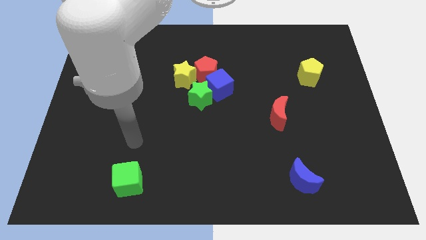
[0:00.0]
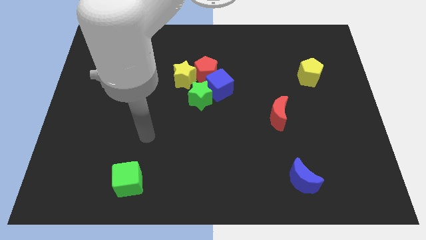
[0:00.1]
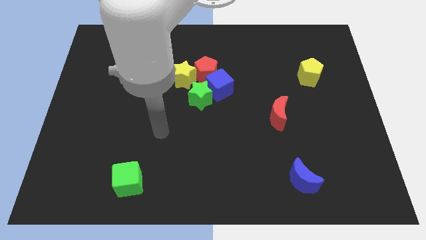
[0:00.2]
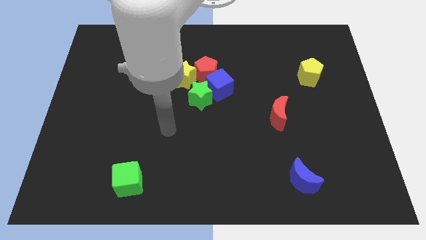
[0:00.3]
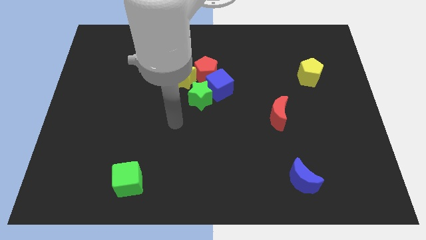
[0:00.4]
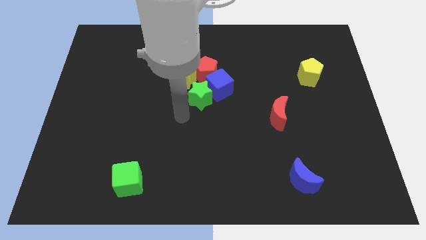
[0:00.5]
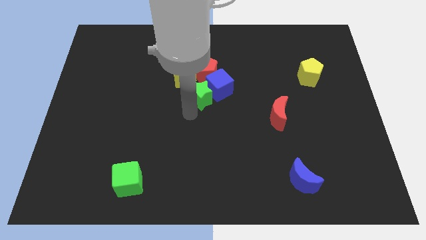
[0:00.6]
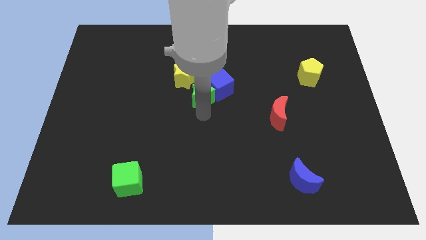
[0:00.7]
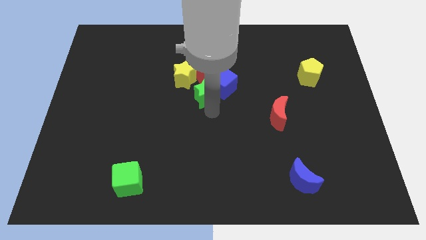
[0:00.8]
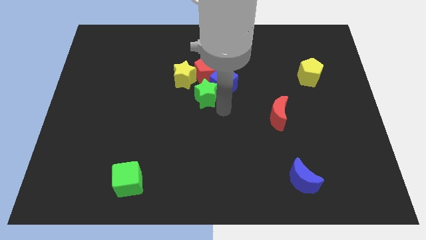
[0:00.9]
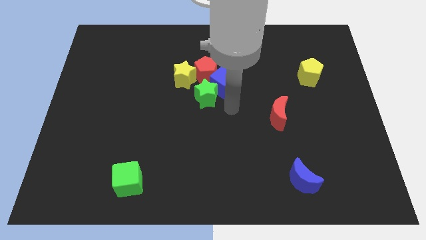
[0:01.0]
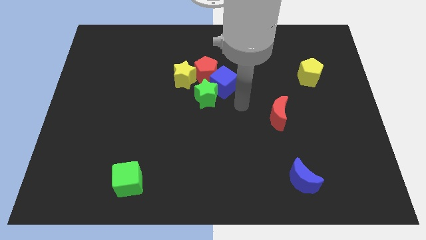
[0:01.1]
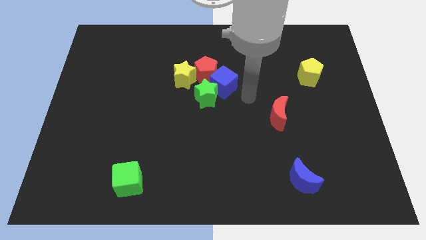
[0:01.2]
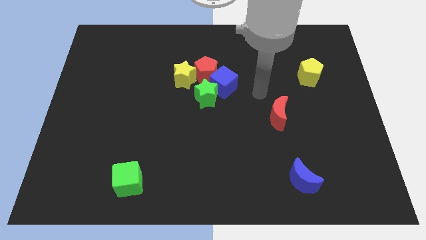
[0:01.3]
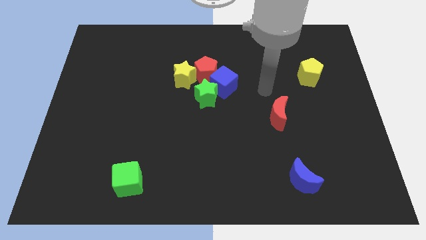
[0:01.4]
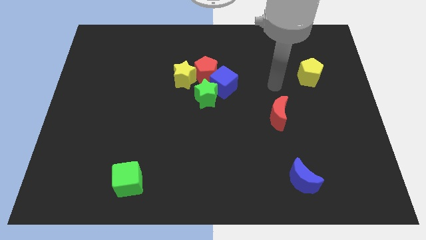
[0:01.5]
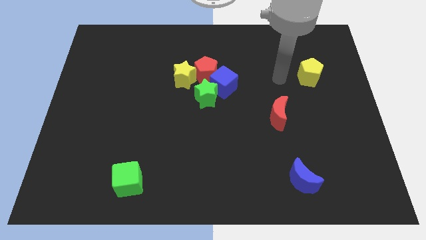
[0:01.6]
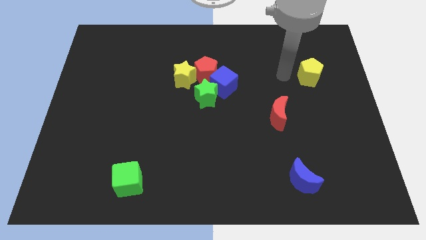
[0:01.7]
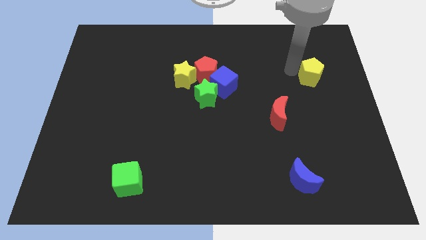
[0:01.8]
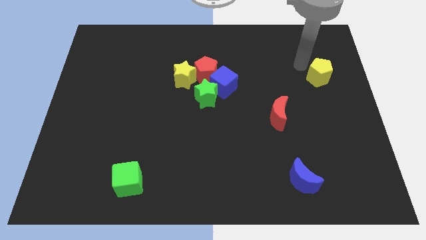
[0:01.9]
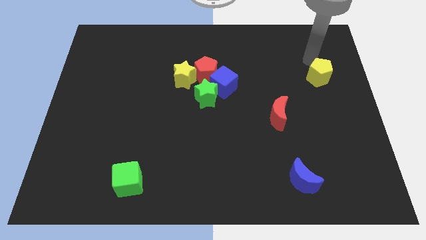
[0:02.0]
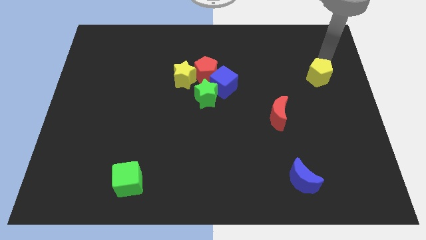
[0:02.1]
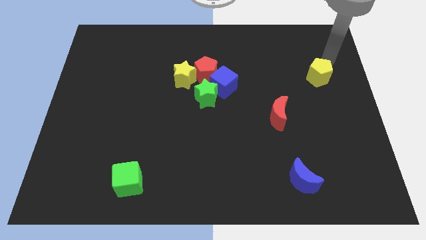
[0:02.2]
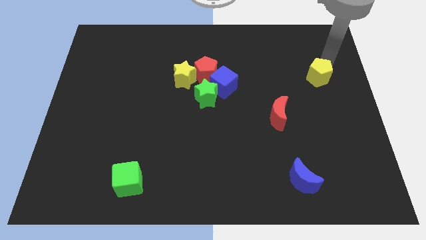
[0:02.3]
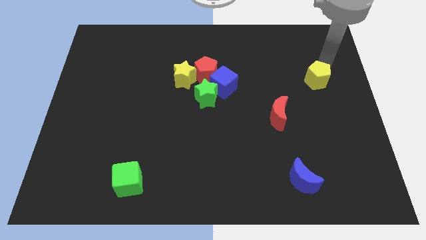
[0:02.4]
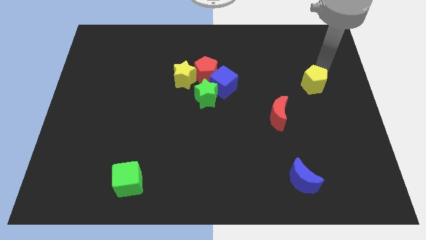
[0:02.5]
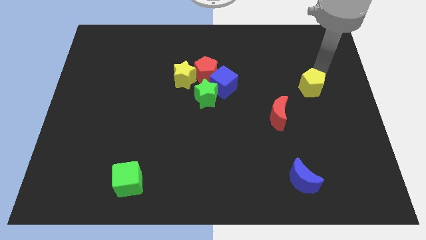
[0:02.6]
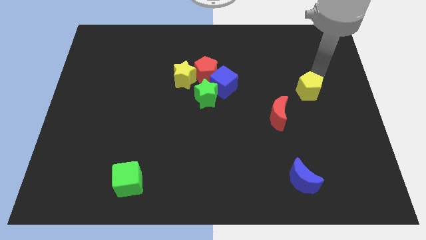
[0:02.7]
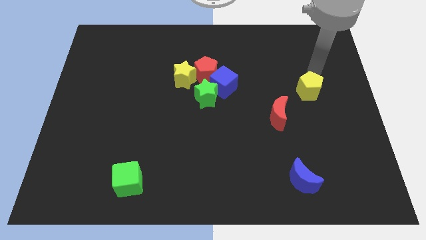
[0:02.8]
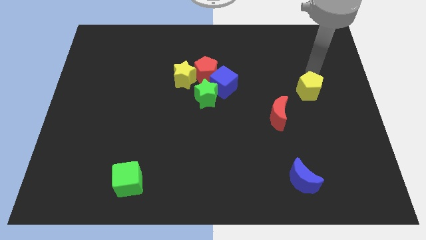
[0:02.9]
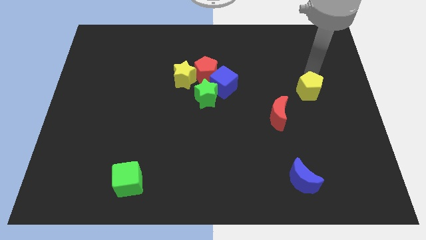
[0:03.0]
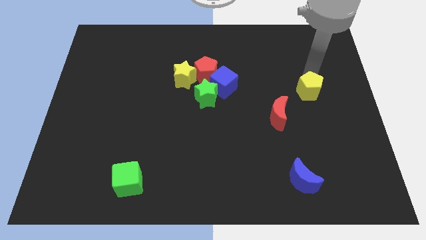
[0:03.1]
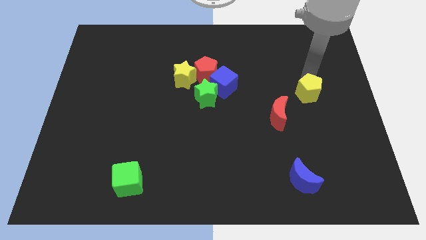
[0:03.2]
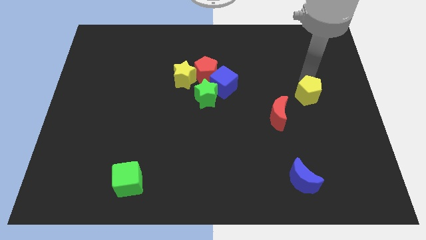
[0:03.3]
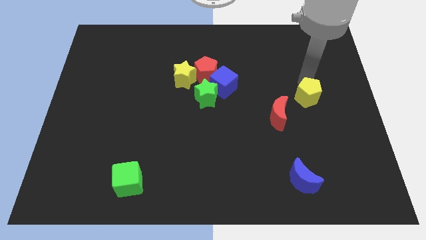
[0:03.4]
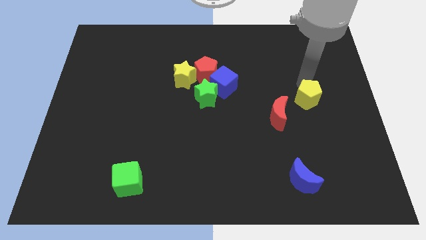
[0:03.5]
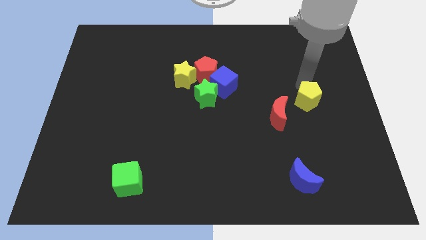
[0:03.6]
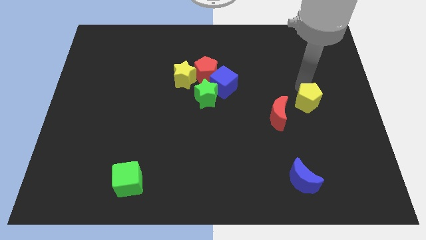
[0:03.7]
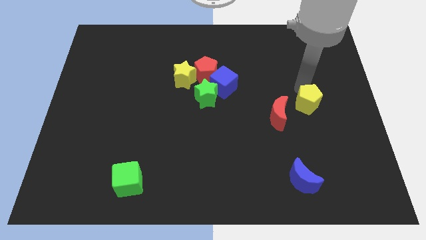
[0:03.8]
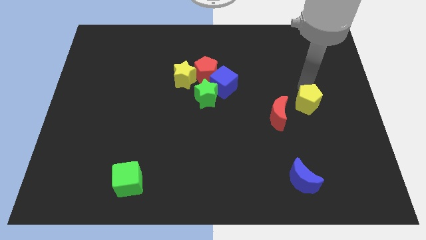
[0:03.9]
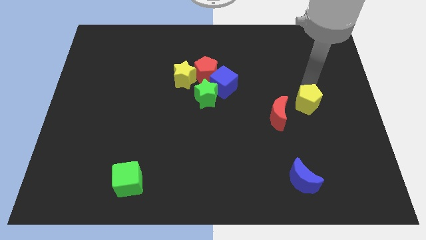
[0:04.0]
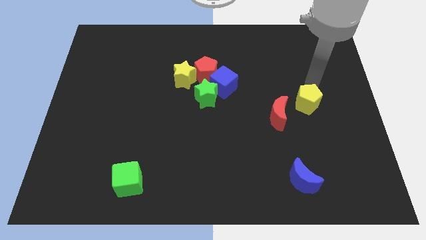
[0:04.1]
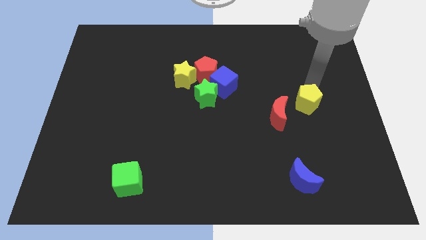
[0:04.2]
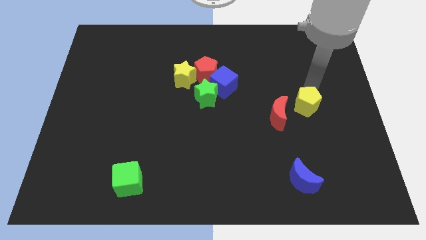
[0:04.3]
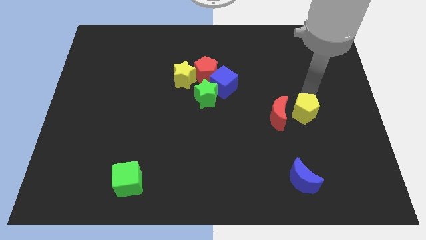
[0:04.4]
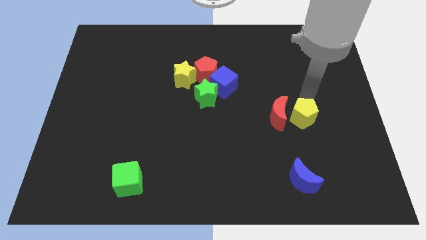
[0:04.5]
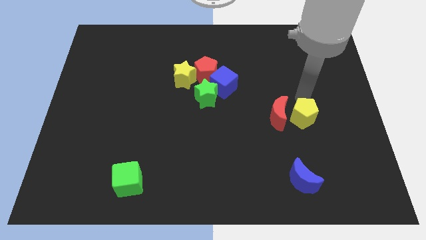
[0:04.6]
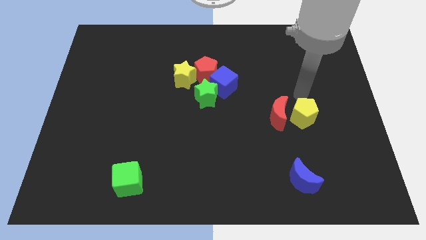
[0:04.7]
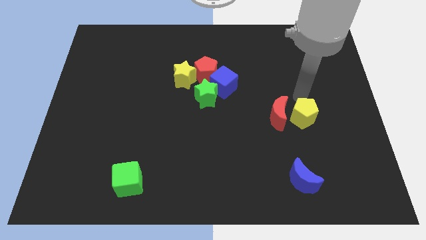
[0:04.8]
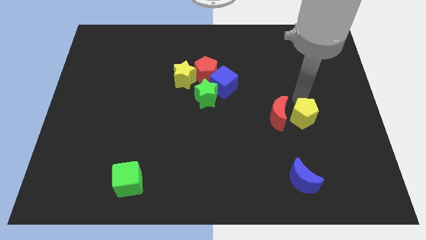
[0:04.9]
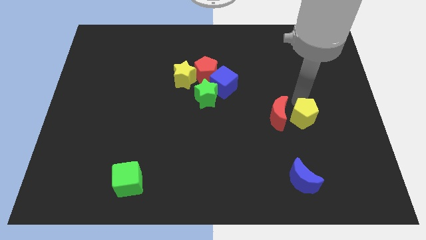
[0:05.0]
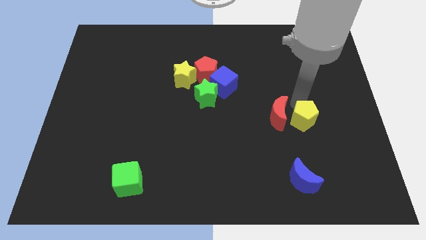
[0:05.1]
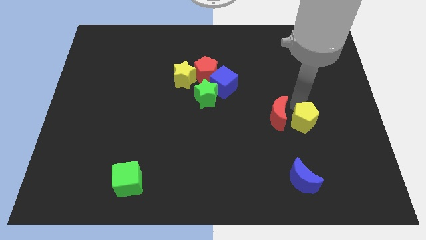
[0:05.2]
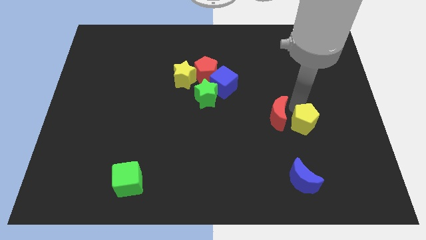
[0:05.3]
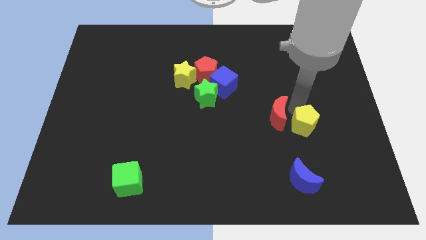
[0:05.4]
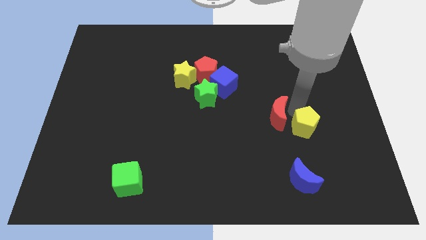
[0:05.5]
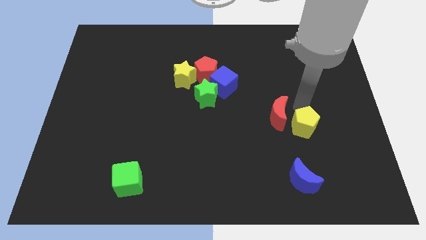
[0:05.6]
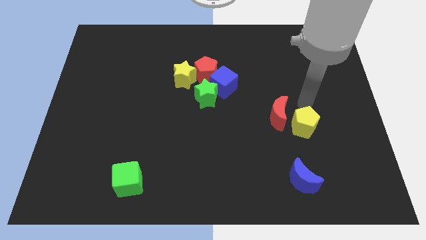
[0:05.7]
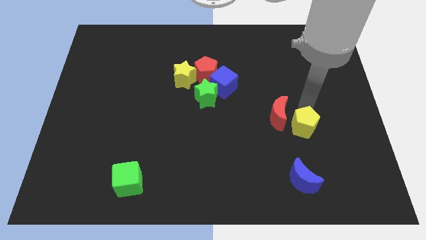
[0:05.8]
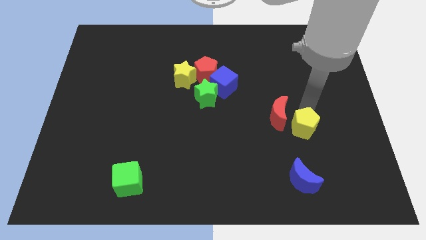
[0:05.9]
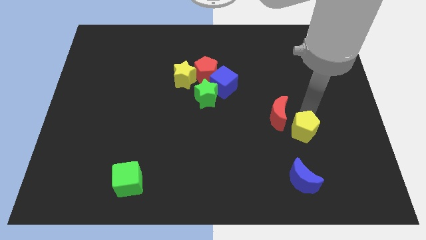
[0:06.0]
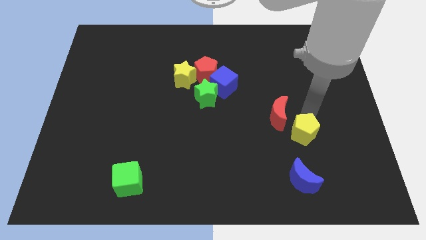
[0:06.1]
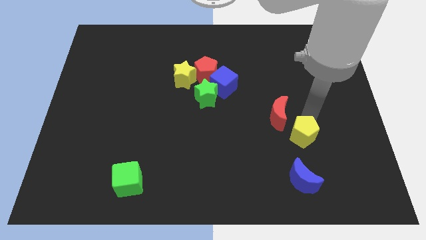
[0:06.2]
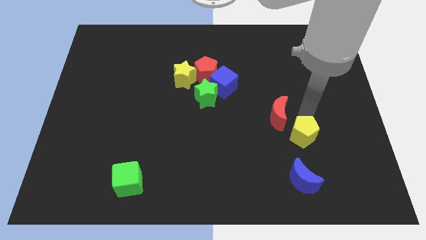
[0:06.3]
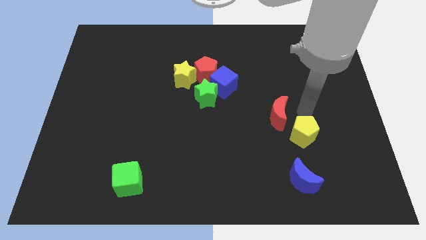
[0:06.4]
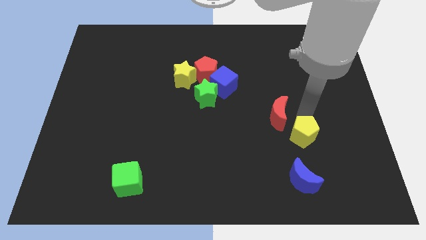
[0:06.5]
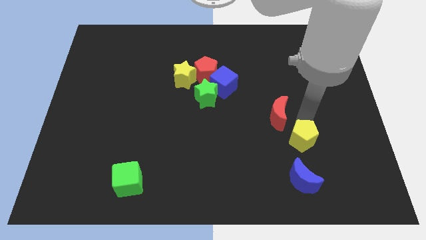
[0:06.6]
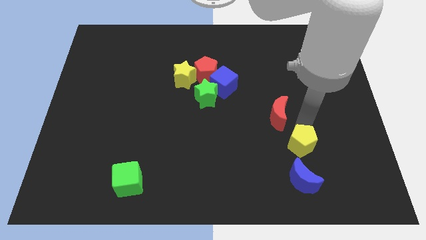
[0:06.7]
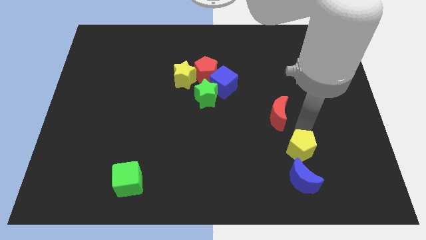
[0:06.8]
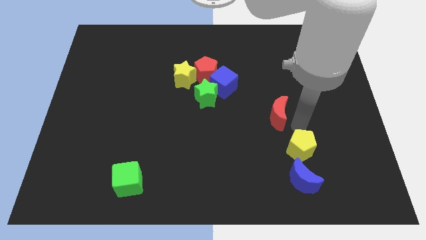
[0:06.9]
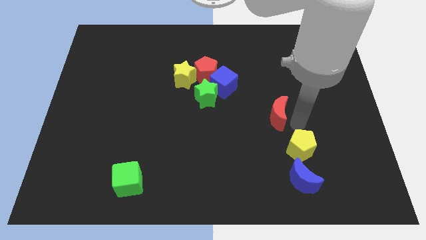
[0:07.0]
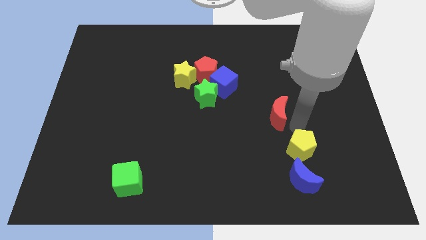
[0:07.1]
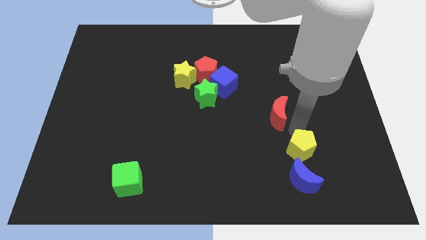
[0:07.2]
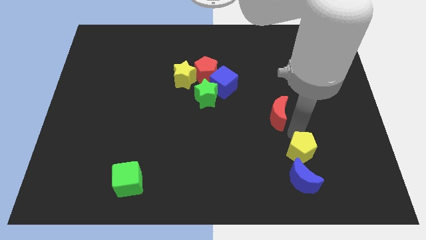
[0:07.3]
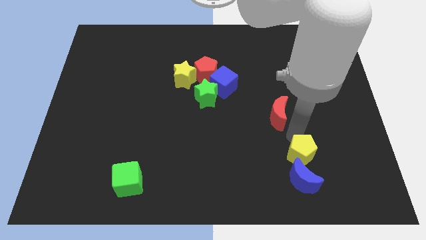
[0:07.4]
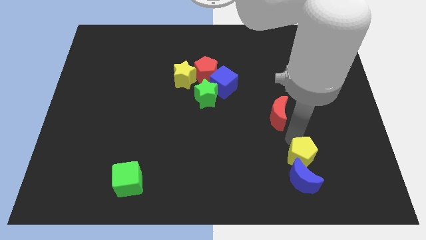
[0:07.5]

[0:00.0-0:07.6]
slide the yellow pentagon to the blue moon
